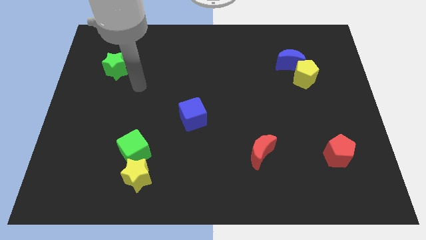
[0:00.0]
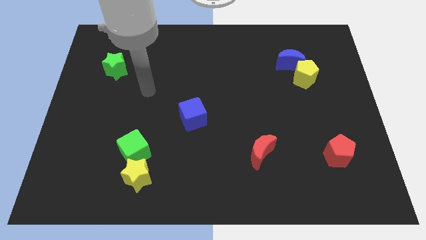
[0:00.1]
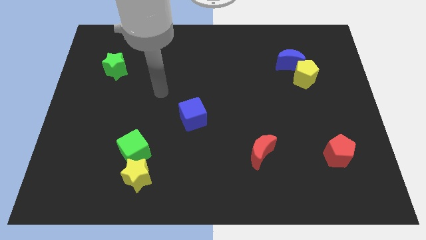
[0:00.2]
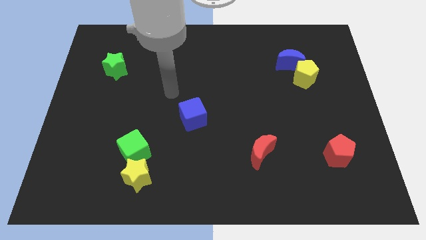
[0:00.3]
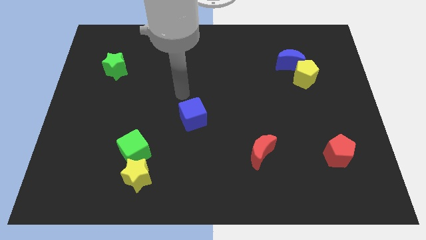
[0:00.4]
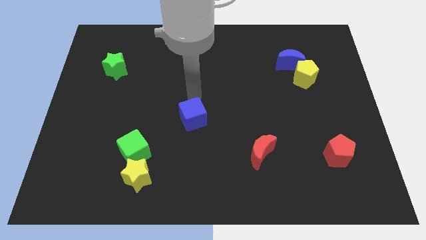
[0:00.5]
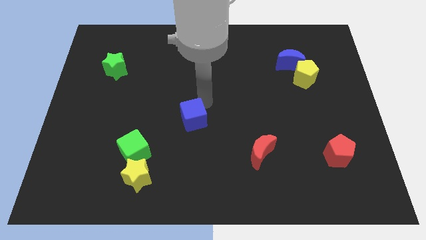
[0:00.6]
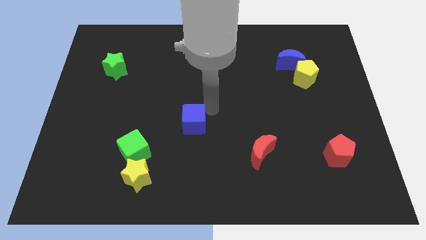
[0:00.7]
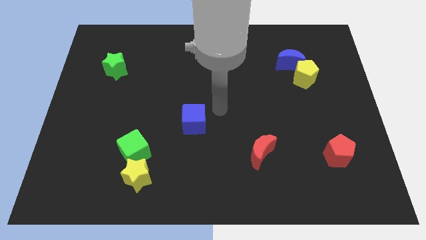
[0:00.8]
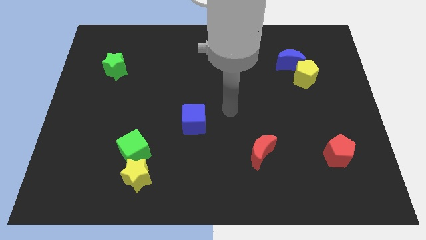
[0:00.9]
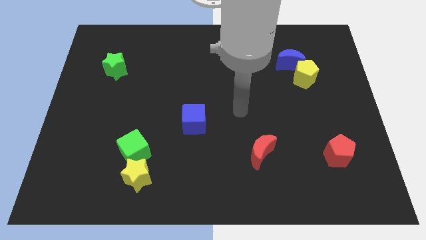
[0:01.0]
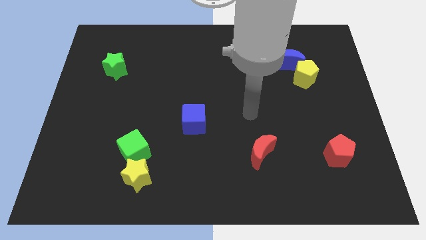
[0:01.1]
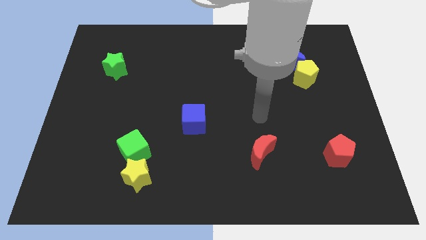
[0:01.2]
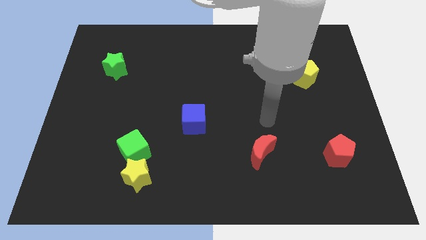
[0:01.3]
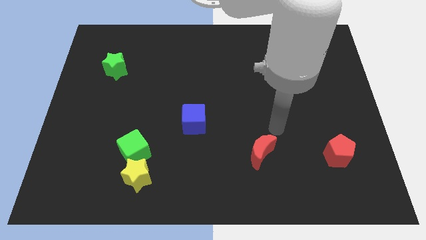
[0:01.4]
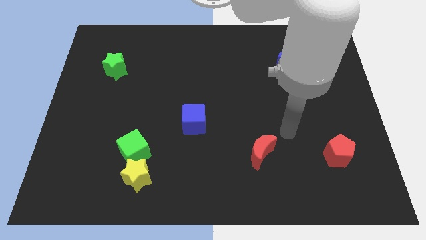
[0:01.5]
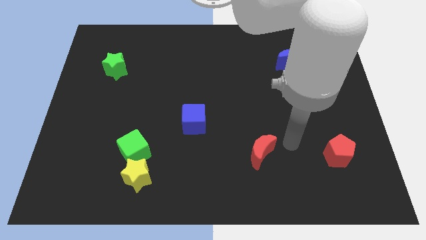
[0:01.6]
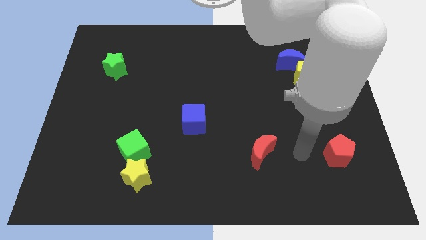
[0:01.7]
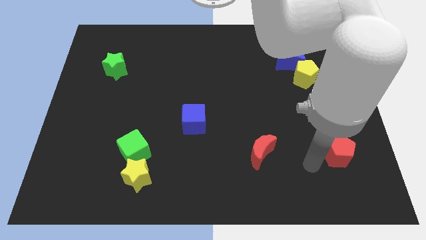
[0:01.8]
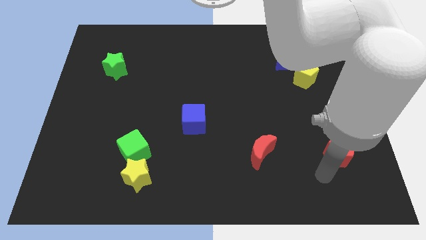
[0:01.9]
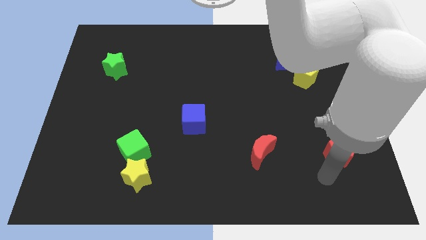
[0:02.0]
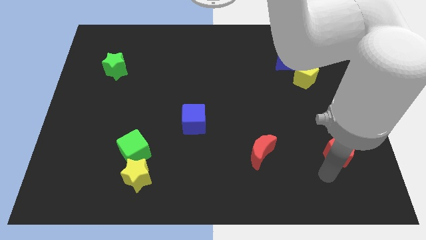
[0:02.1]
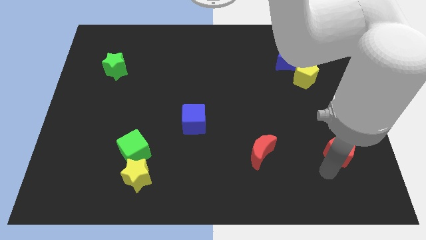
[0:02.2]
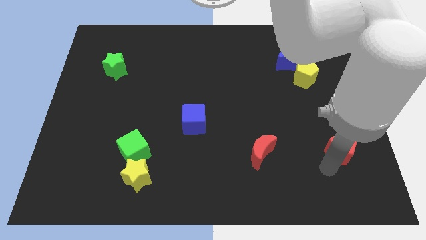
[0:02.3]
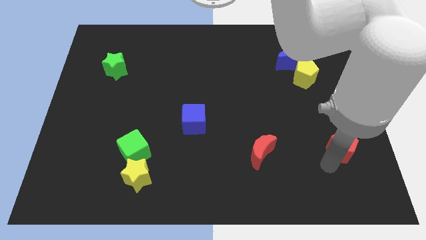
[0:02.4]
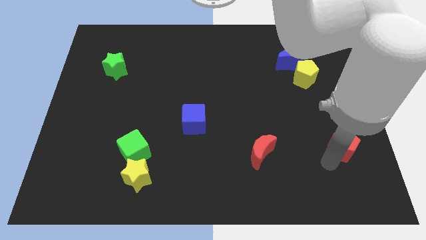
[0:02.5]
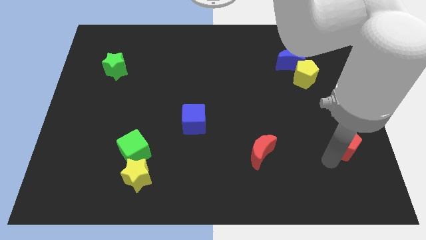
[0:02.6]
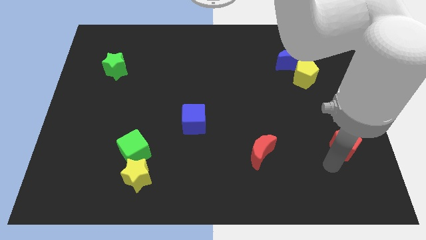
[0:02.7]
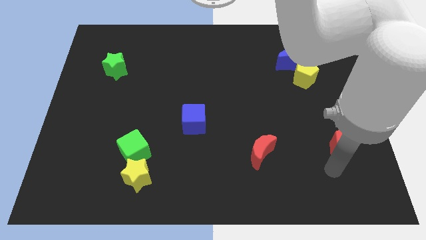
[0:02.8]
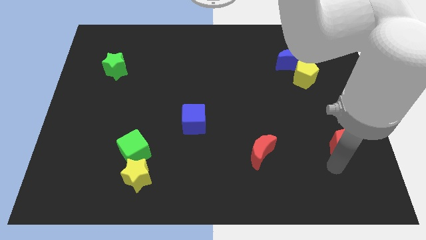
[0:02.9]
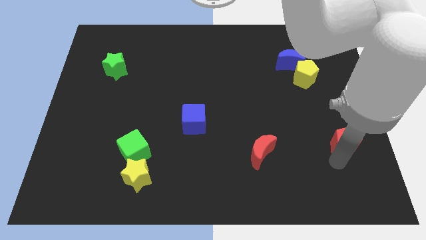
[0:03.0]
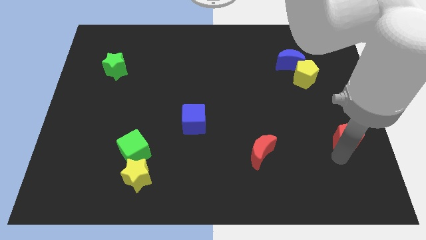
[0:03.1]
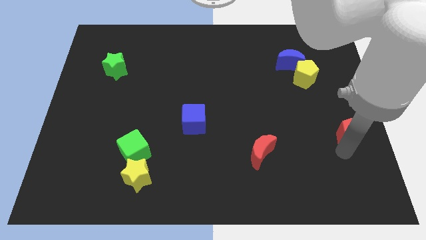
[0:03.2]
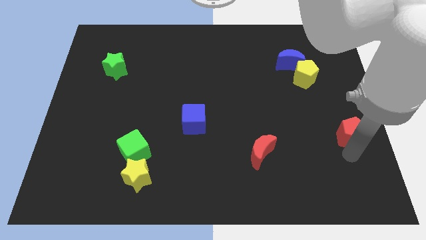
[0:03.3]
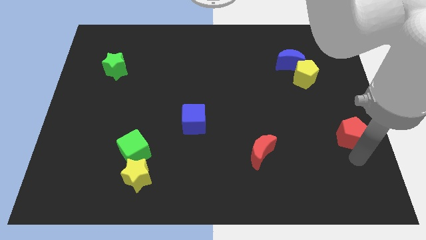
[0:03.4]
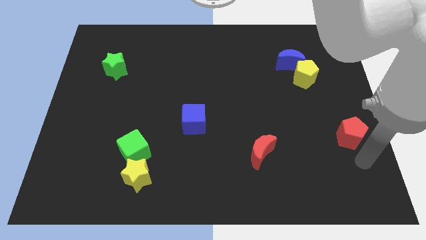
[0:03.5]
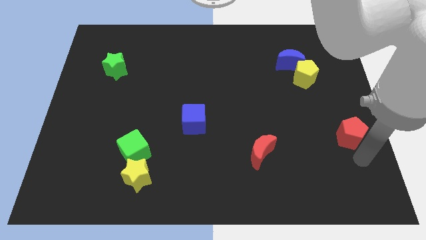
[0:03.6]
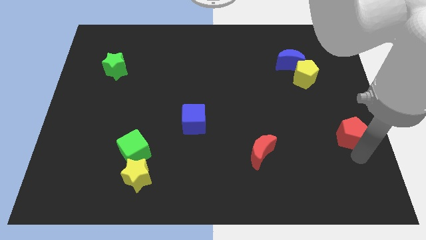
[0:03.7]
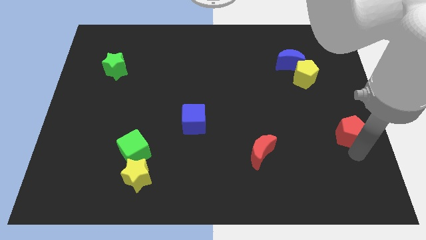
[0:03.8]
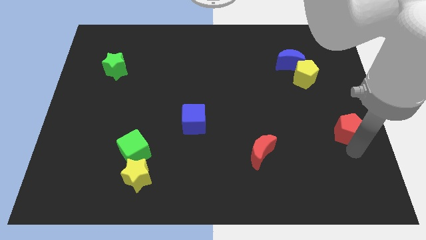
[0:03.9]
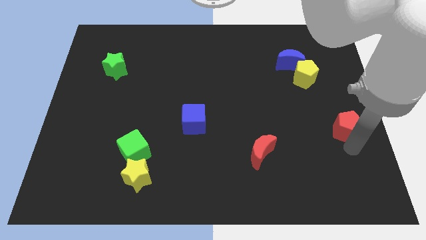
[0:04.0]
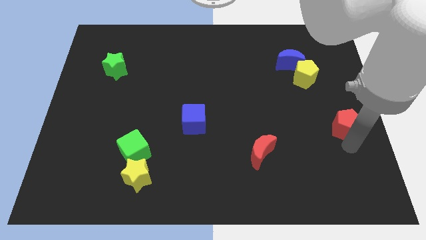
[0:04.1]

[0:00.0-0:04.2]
slightly push the red pentagon upwards

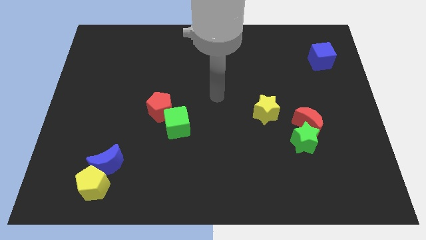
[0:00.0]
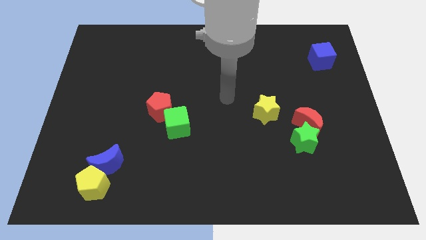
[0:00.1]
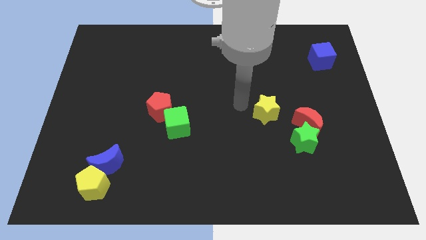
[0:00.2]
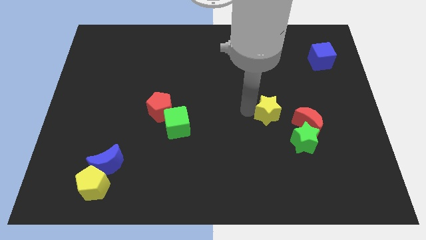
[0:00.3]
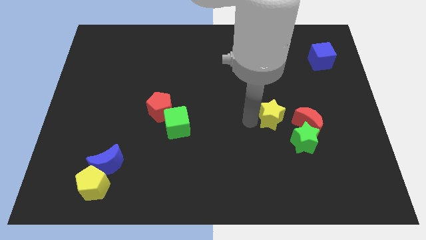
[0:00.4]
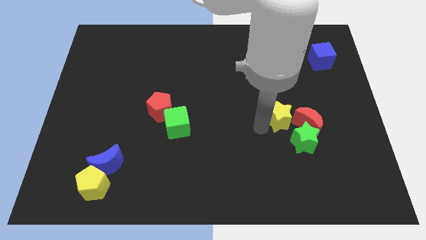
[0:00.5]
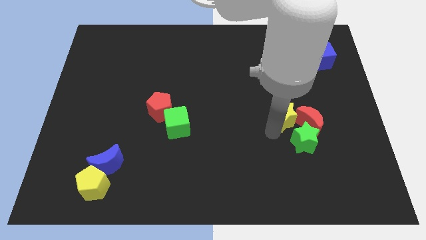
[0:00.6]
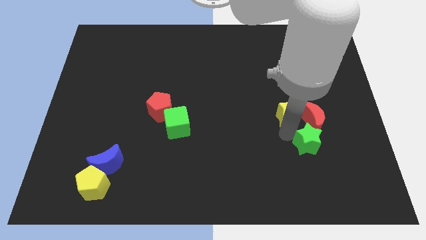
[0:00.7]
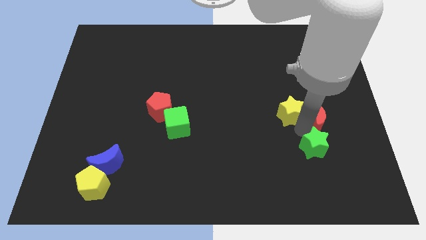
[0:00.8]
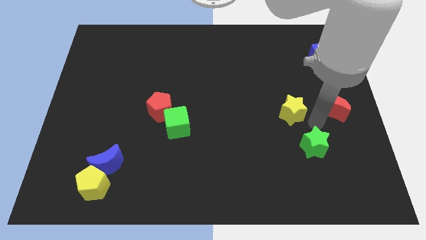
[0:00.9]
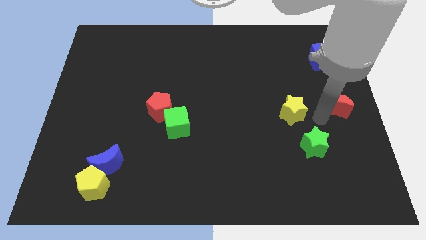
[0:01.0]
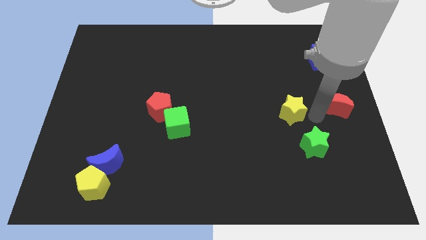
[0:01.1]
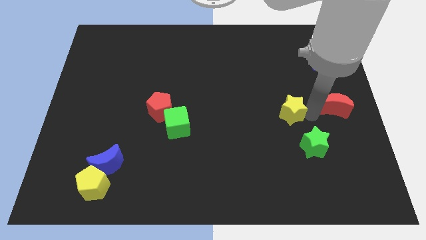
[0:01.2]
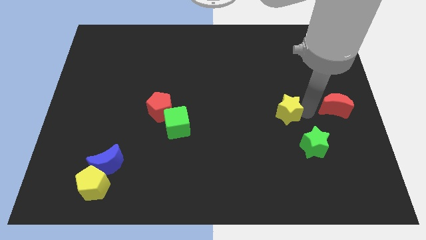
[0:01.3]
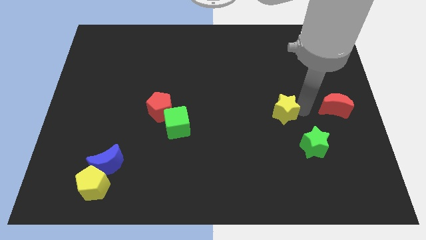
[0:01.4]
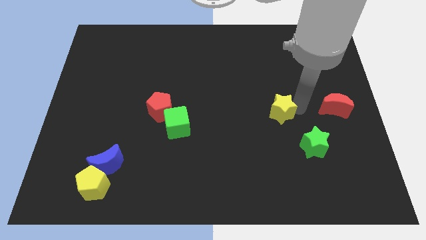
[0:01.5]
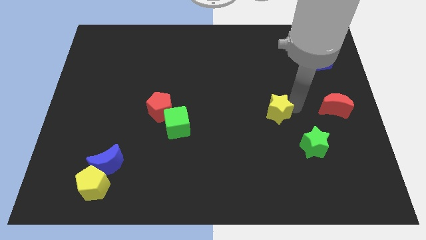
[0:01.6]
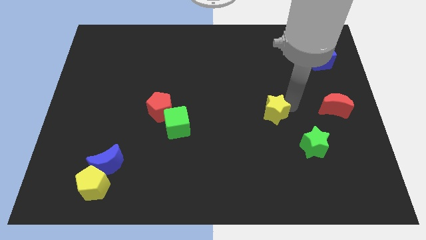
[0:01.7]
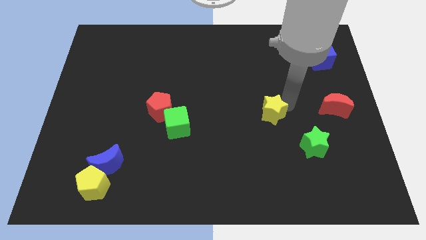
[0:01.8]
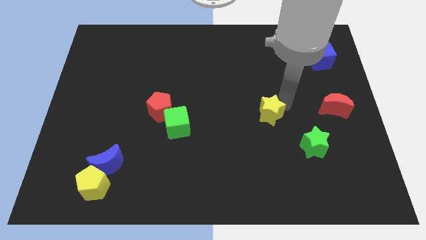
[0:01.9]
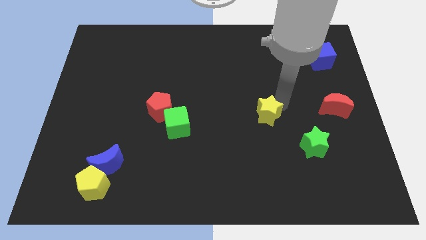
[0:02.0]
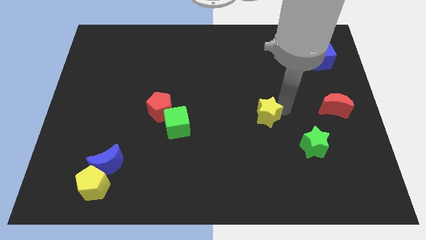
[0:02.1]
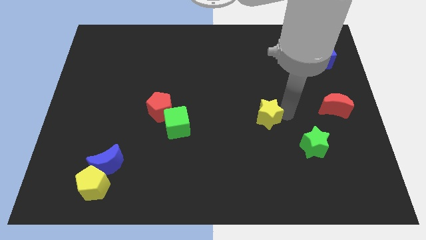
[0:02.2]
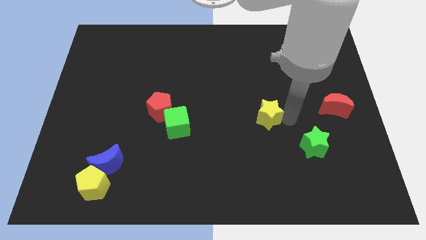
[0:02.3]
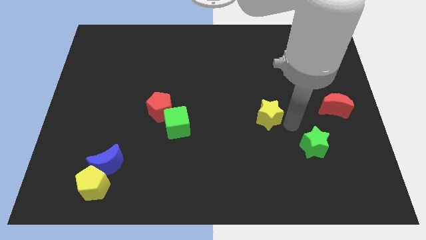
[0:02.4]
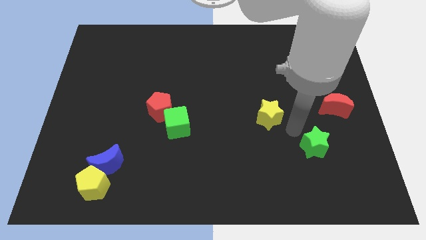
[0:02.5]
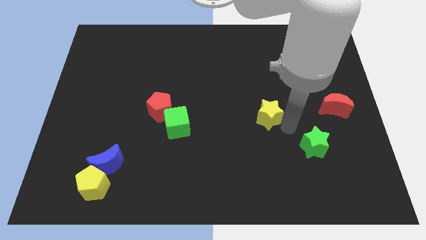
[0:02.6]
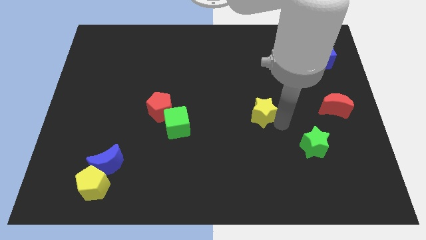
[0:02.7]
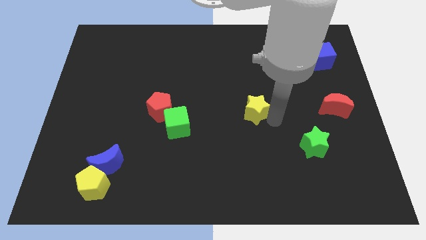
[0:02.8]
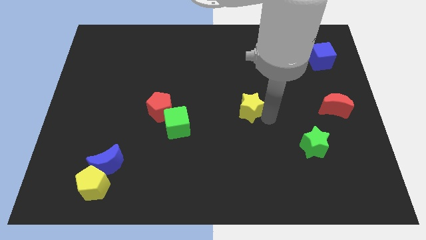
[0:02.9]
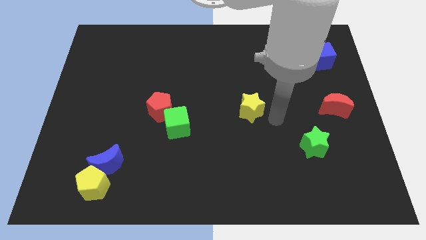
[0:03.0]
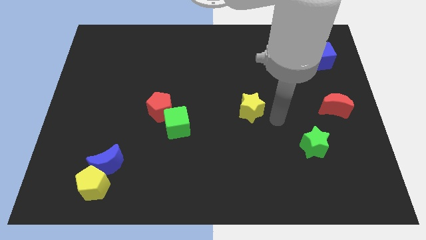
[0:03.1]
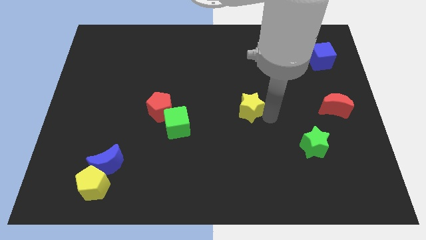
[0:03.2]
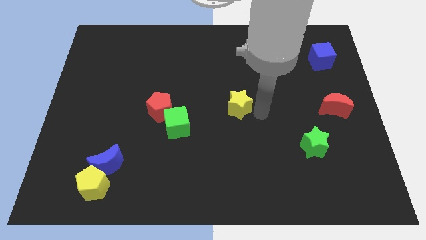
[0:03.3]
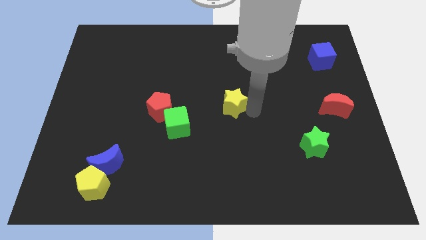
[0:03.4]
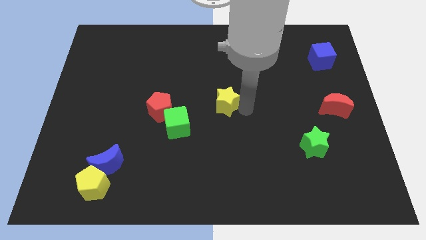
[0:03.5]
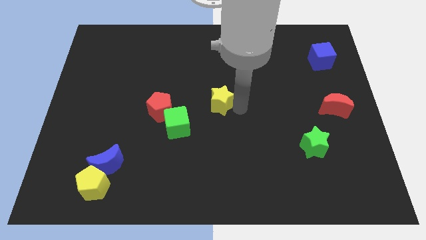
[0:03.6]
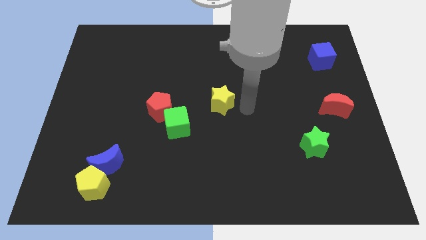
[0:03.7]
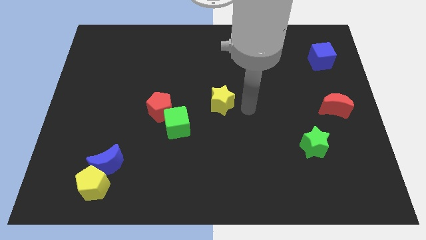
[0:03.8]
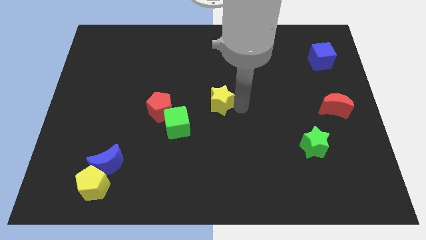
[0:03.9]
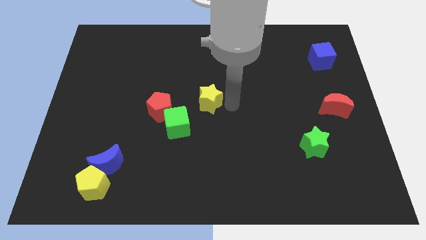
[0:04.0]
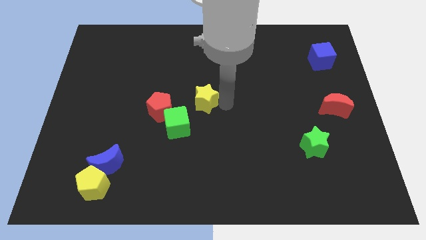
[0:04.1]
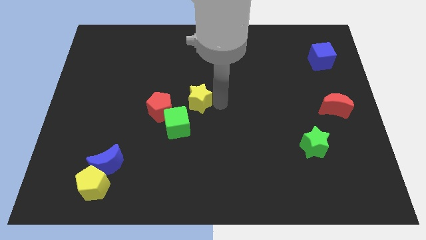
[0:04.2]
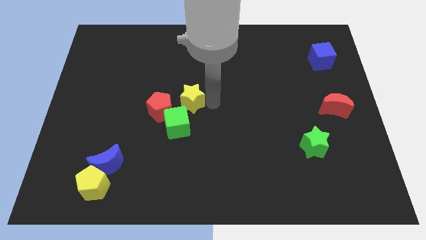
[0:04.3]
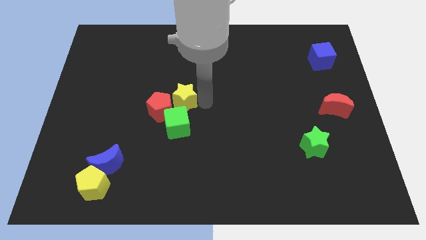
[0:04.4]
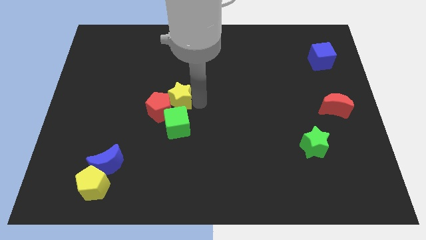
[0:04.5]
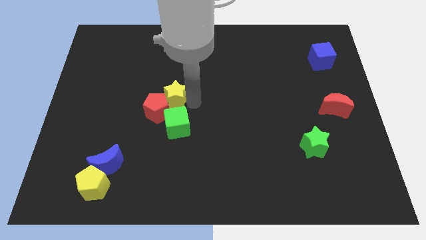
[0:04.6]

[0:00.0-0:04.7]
move the yellow star to the left

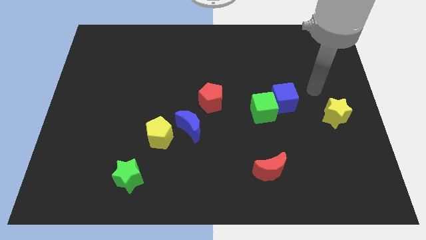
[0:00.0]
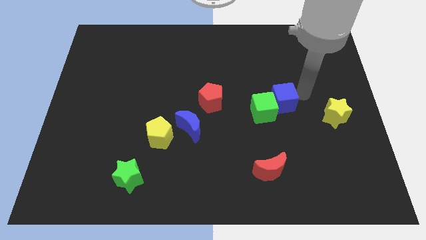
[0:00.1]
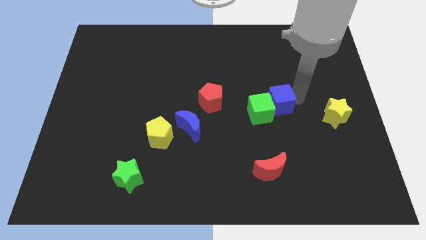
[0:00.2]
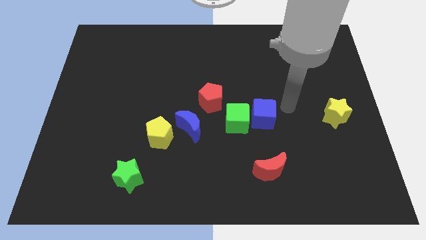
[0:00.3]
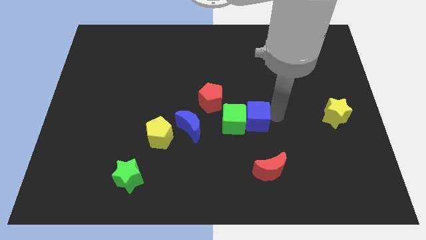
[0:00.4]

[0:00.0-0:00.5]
push the green cube slightly left
